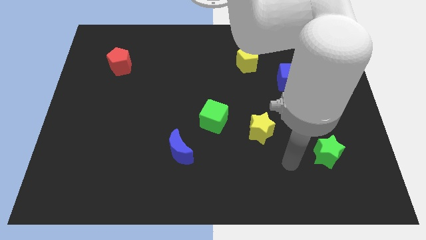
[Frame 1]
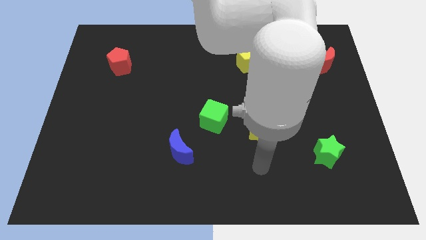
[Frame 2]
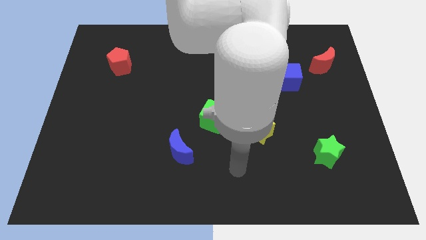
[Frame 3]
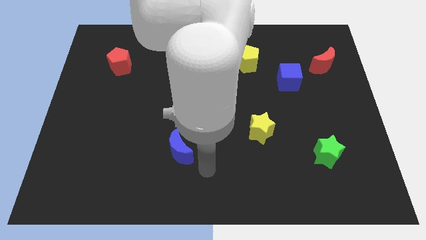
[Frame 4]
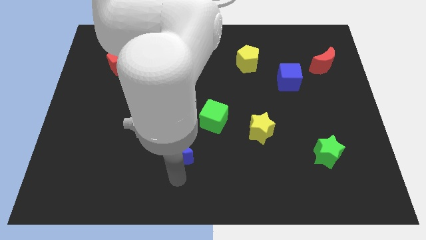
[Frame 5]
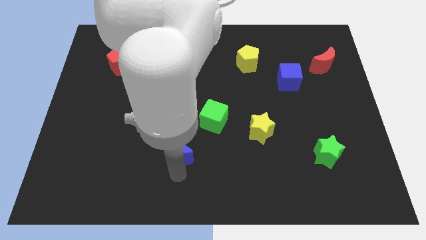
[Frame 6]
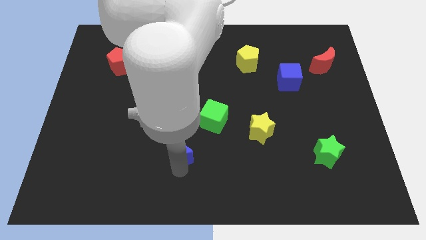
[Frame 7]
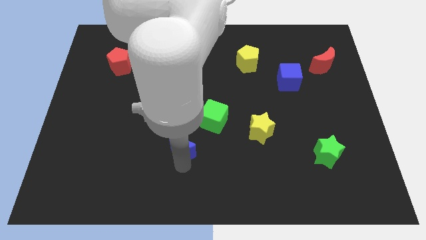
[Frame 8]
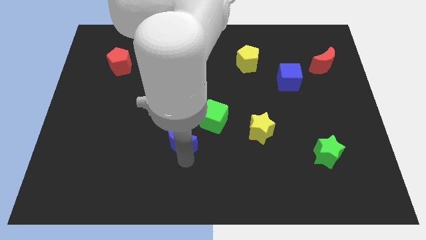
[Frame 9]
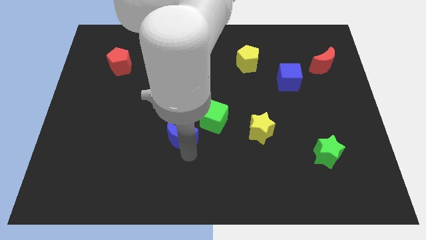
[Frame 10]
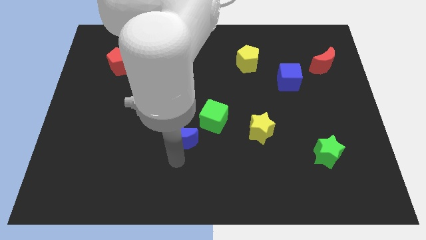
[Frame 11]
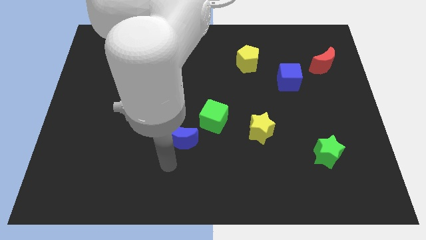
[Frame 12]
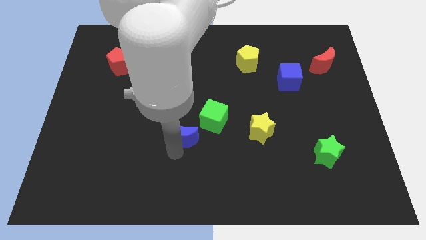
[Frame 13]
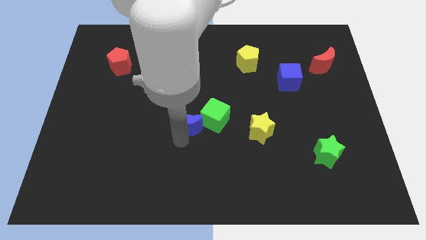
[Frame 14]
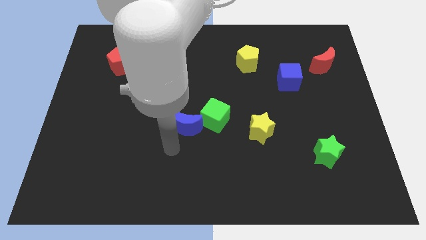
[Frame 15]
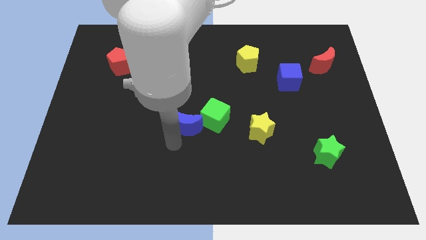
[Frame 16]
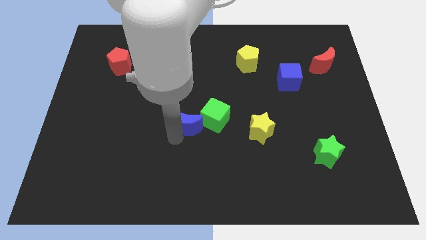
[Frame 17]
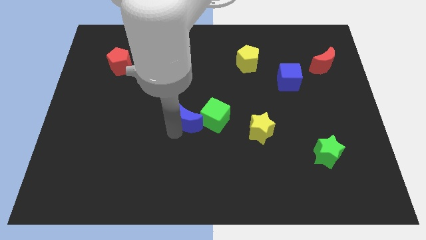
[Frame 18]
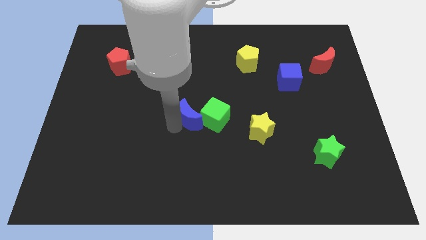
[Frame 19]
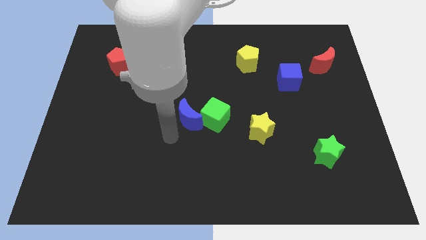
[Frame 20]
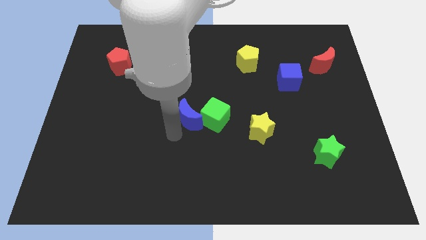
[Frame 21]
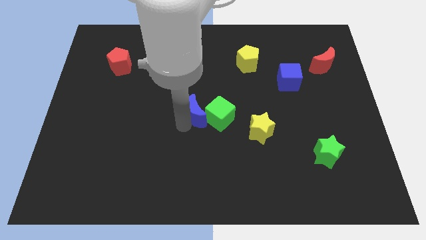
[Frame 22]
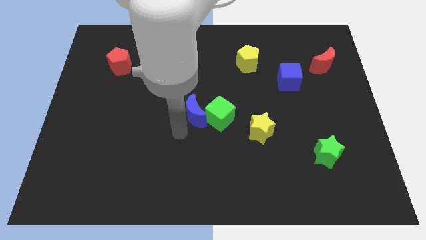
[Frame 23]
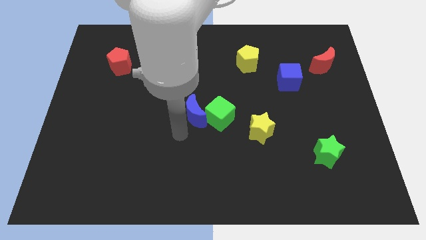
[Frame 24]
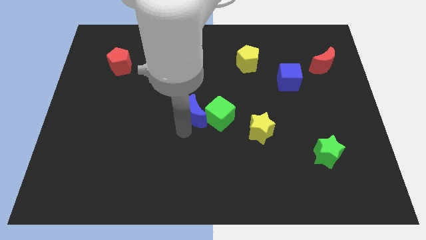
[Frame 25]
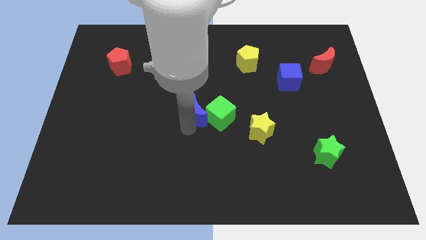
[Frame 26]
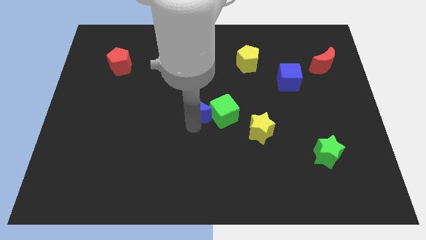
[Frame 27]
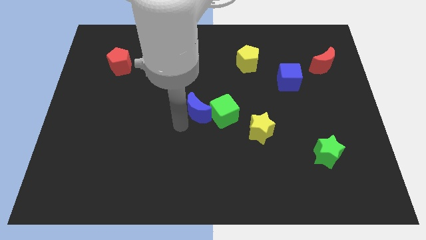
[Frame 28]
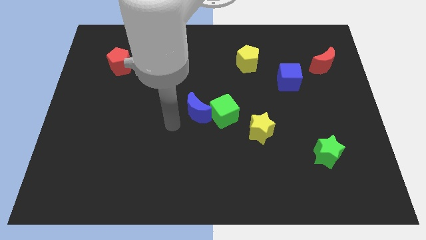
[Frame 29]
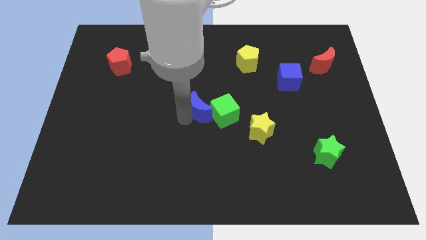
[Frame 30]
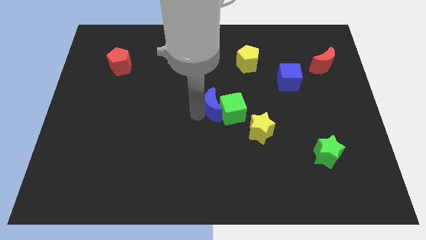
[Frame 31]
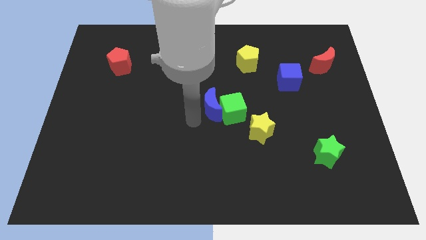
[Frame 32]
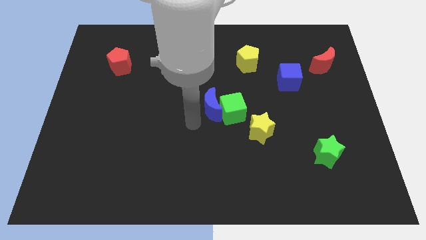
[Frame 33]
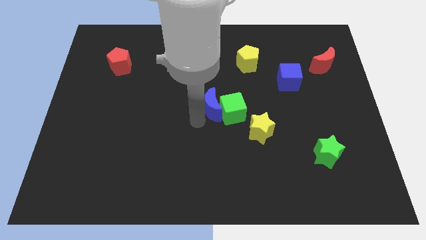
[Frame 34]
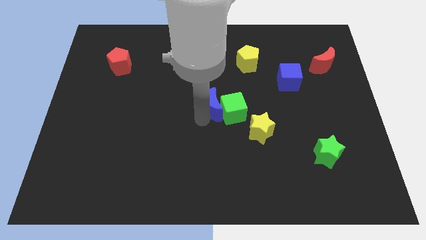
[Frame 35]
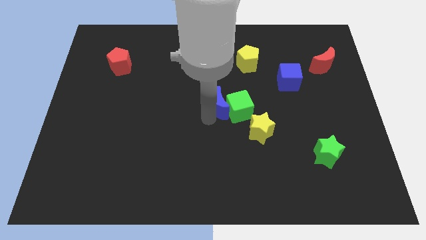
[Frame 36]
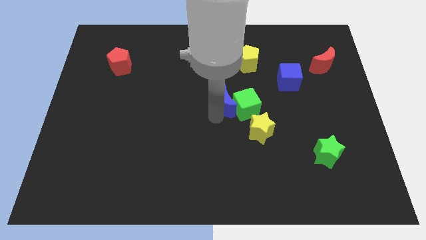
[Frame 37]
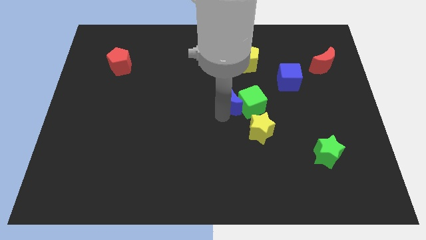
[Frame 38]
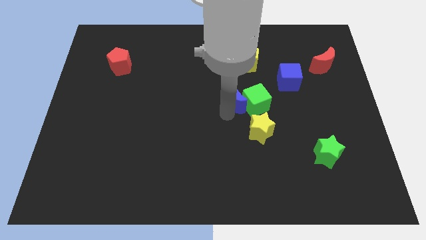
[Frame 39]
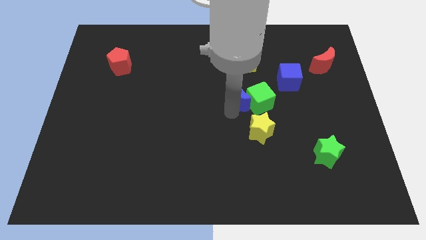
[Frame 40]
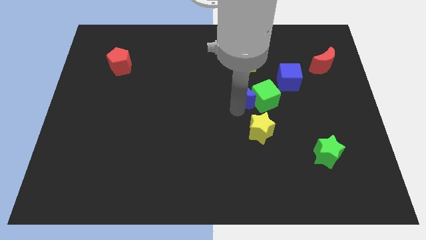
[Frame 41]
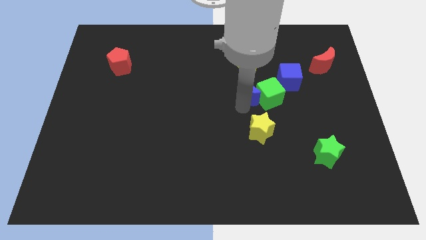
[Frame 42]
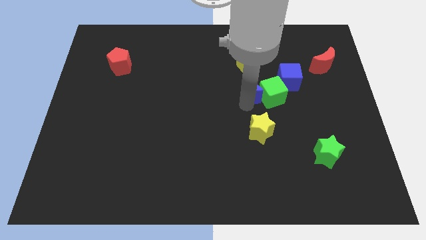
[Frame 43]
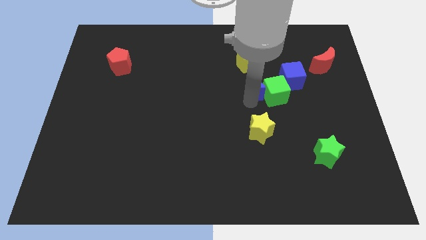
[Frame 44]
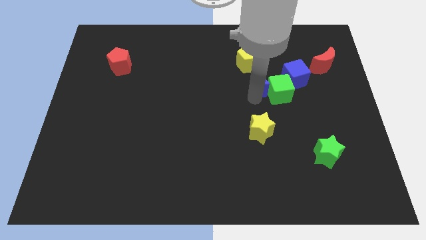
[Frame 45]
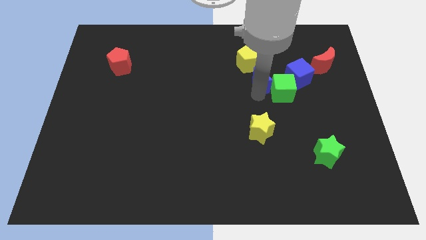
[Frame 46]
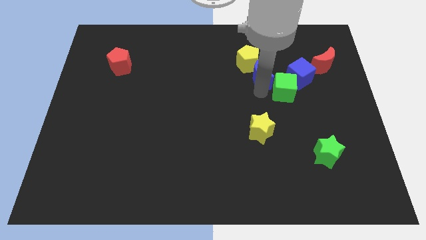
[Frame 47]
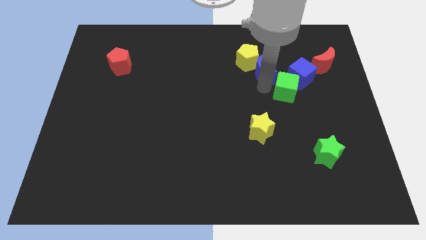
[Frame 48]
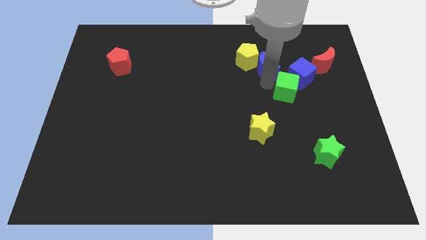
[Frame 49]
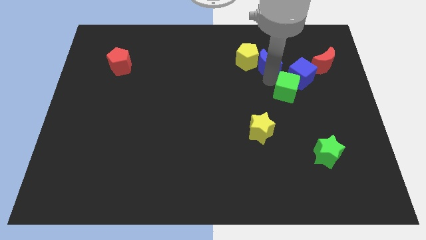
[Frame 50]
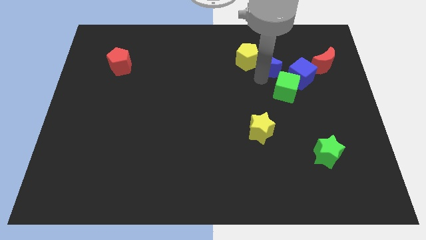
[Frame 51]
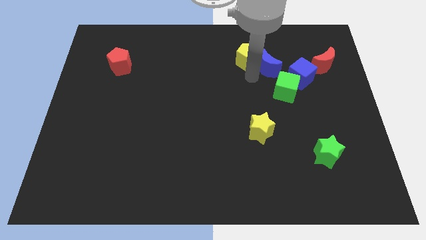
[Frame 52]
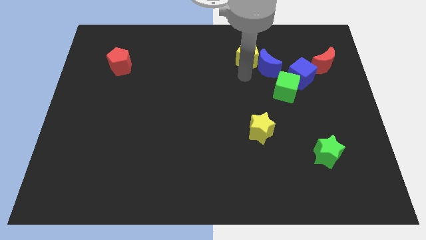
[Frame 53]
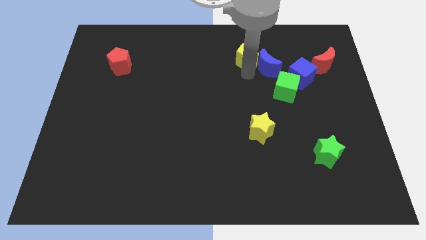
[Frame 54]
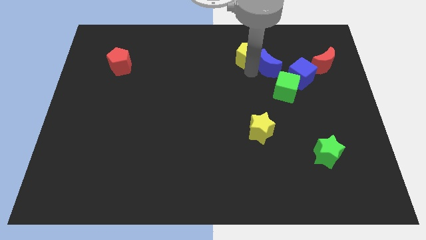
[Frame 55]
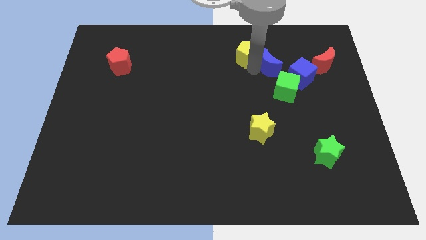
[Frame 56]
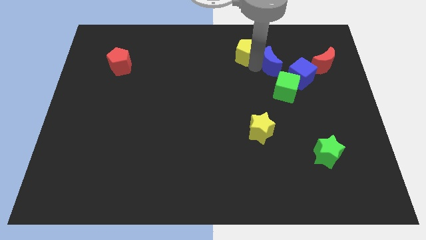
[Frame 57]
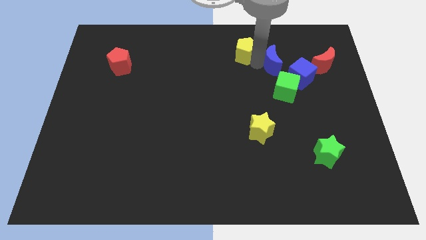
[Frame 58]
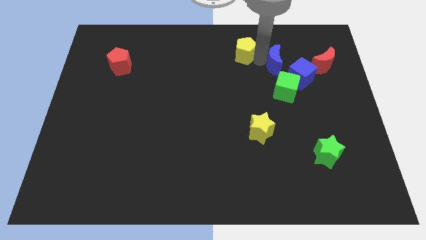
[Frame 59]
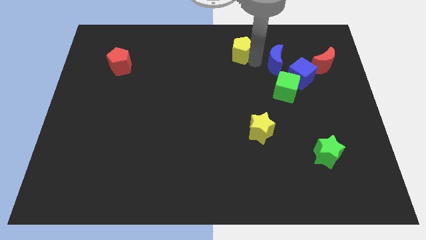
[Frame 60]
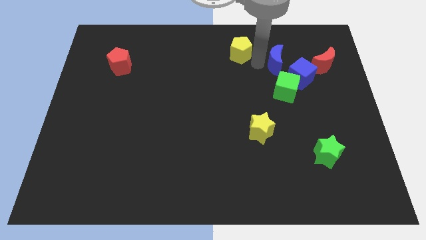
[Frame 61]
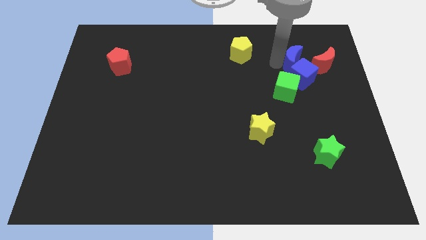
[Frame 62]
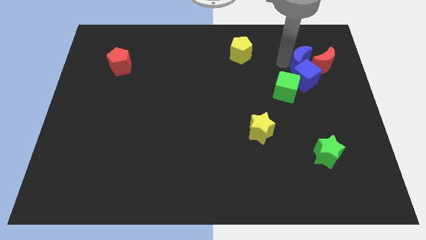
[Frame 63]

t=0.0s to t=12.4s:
push the blue moon to the top right side of the blue cube
